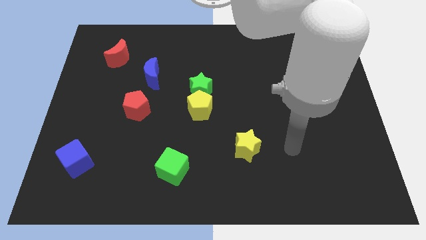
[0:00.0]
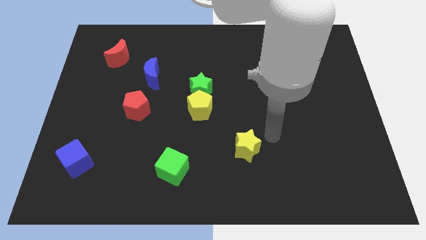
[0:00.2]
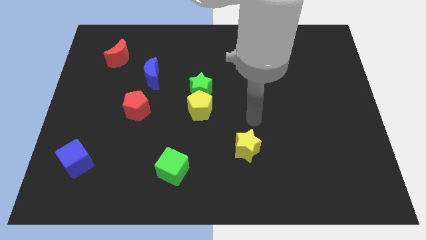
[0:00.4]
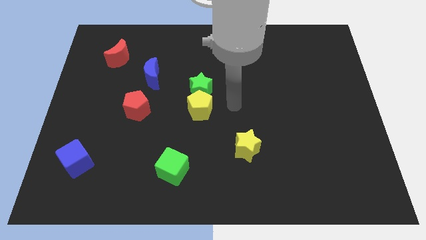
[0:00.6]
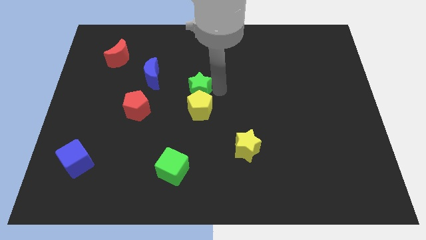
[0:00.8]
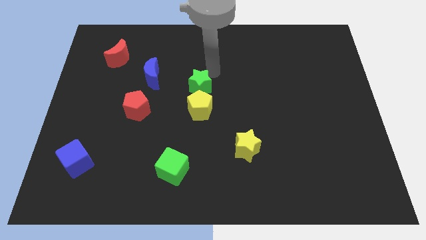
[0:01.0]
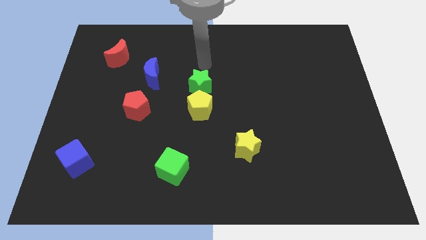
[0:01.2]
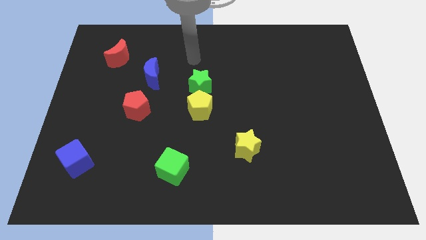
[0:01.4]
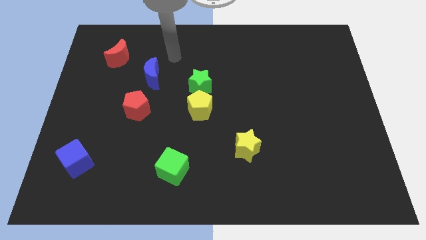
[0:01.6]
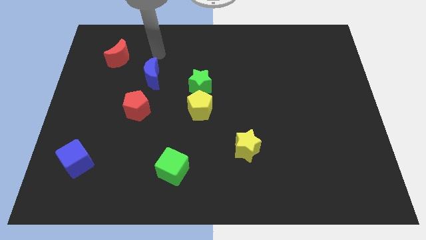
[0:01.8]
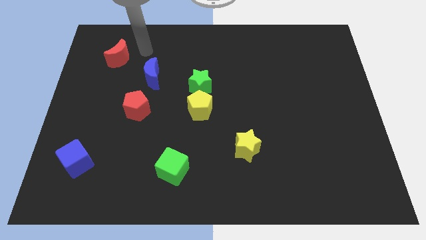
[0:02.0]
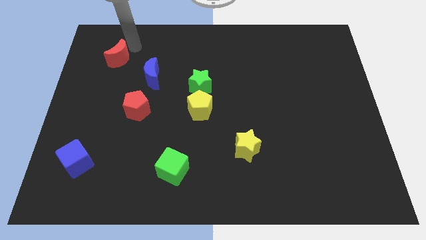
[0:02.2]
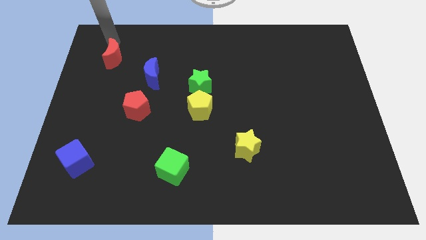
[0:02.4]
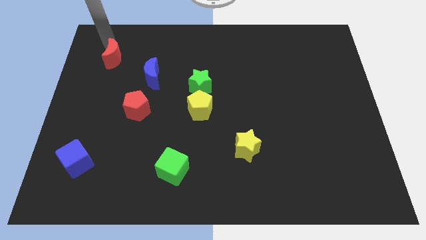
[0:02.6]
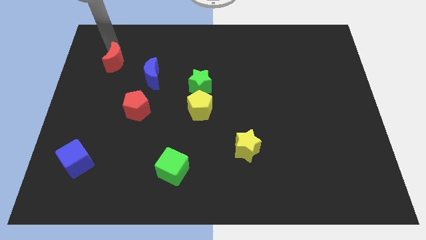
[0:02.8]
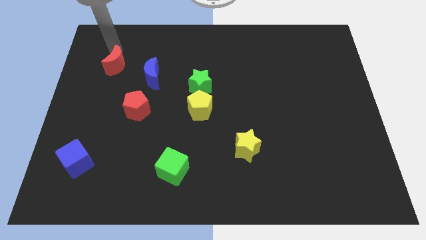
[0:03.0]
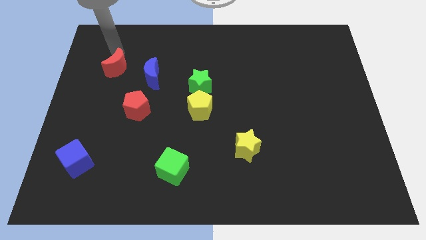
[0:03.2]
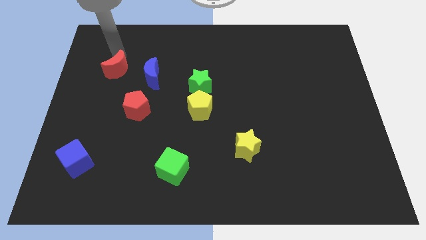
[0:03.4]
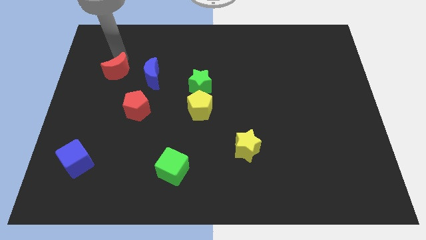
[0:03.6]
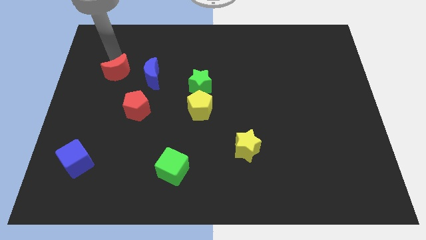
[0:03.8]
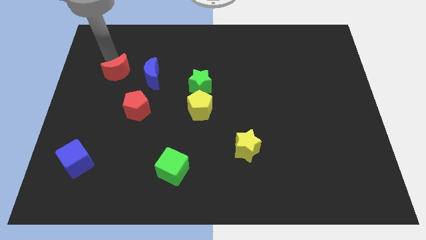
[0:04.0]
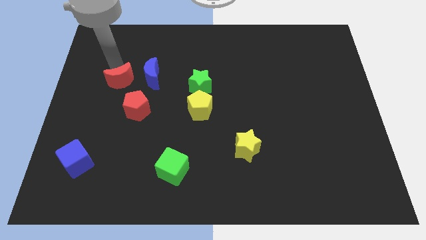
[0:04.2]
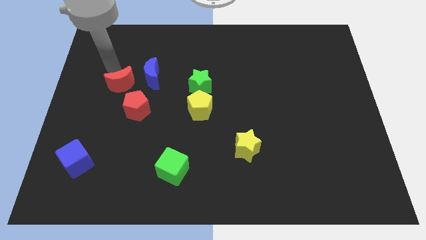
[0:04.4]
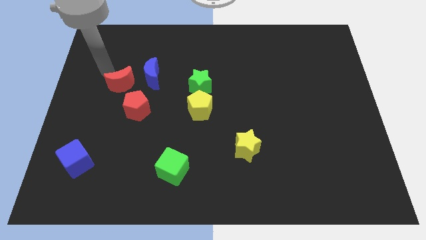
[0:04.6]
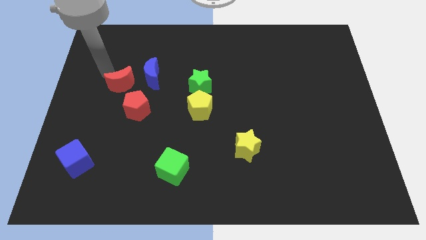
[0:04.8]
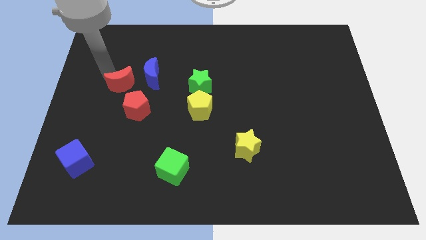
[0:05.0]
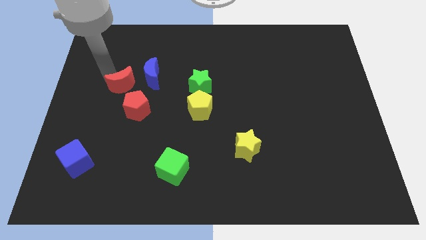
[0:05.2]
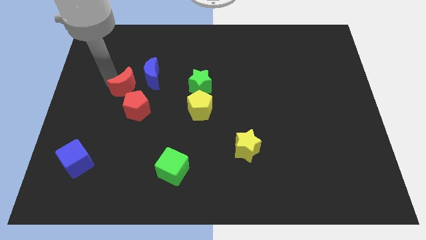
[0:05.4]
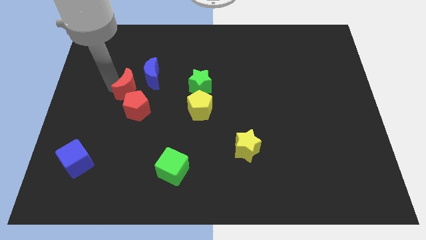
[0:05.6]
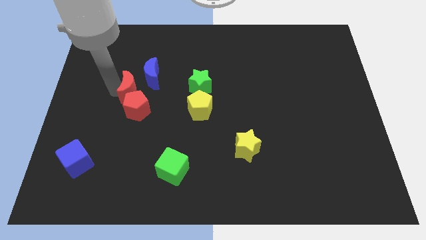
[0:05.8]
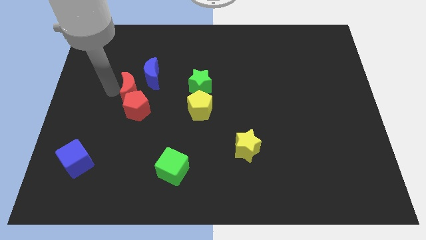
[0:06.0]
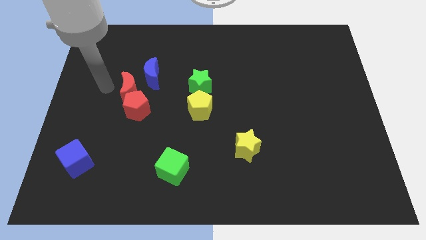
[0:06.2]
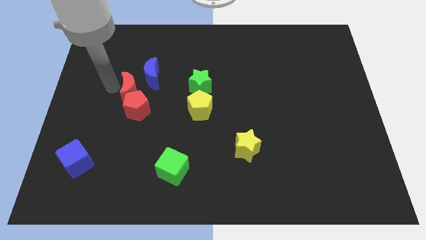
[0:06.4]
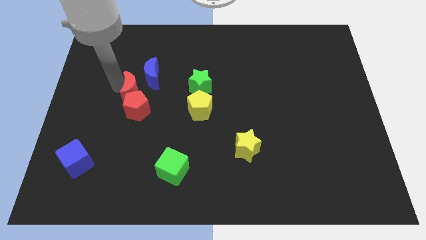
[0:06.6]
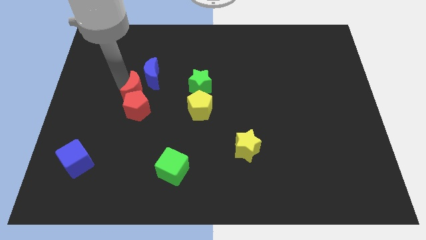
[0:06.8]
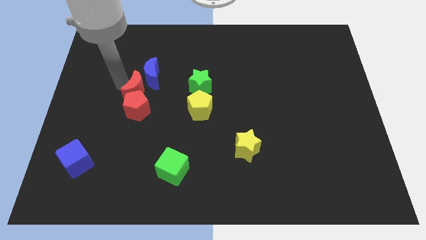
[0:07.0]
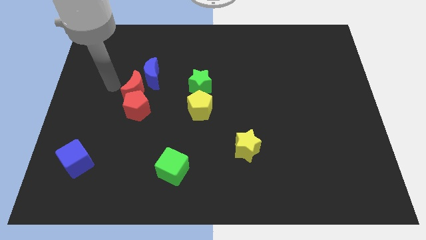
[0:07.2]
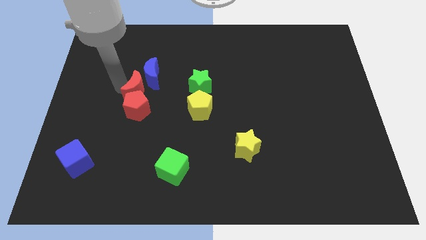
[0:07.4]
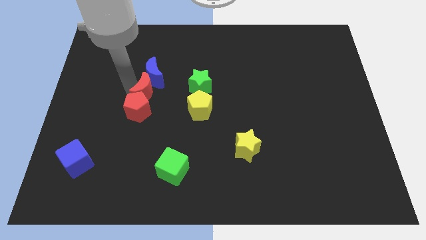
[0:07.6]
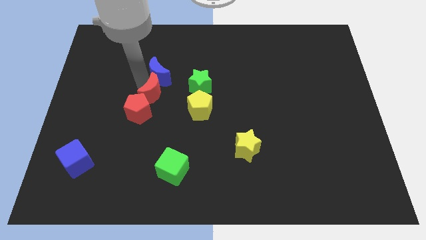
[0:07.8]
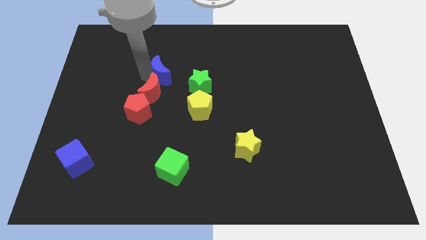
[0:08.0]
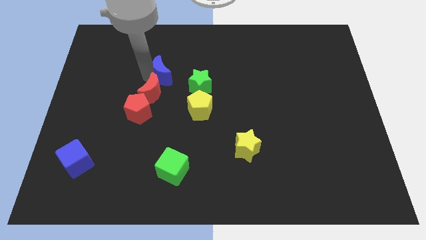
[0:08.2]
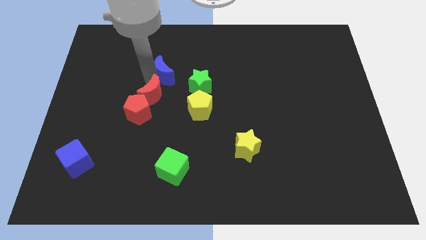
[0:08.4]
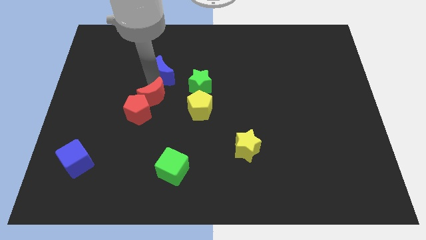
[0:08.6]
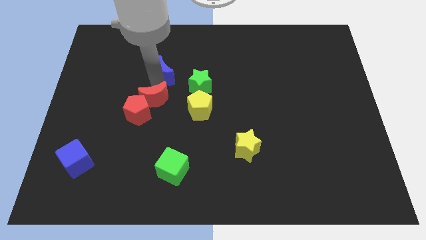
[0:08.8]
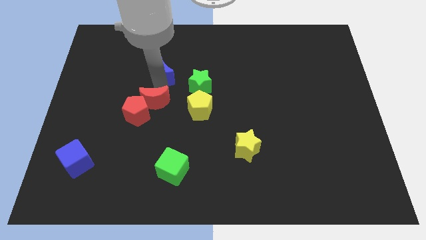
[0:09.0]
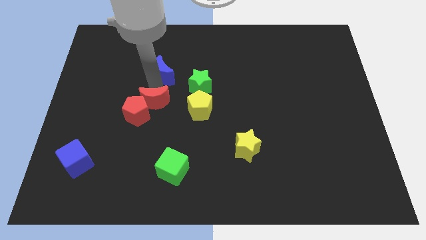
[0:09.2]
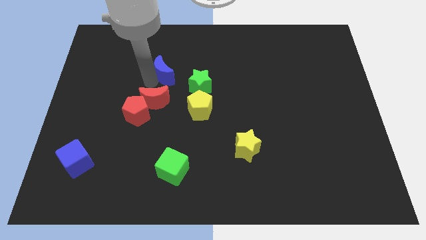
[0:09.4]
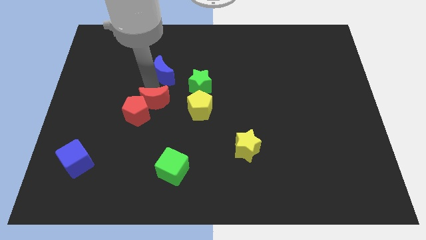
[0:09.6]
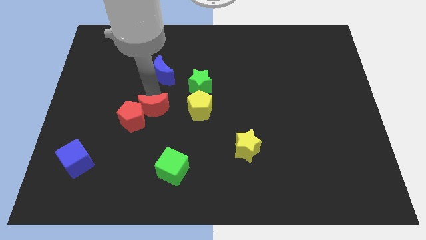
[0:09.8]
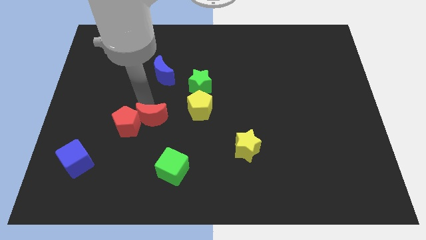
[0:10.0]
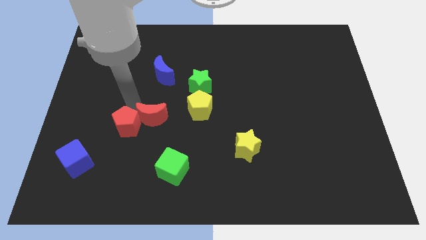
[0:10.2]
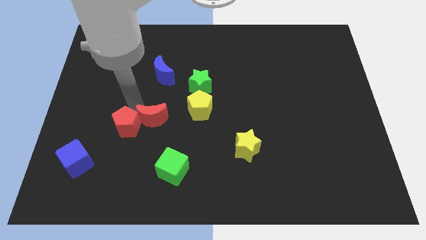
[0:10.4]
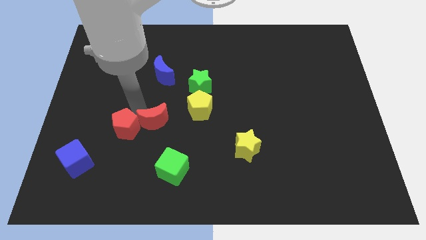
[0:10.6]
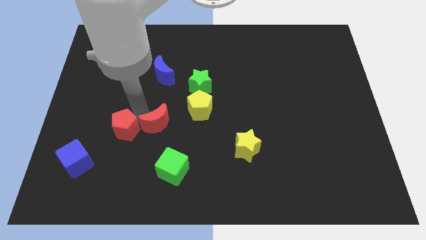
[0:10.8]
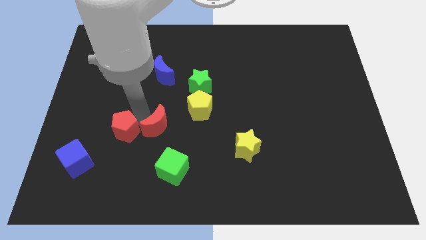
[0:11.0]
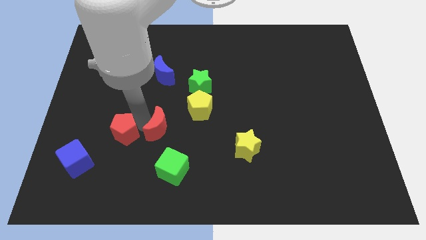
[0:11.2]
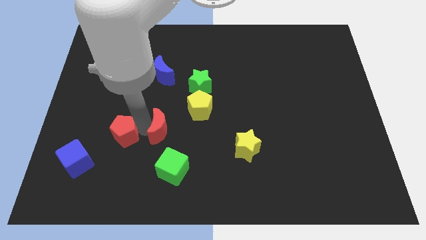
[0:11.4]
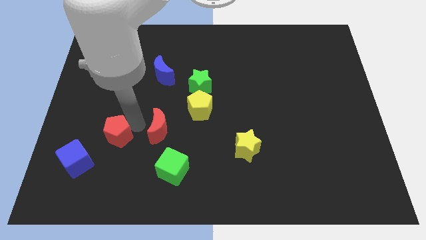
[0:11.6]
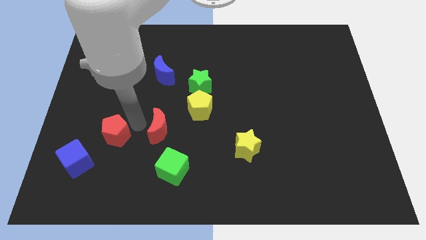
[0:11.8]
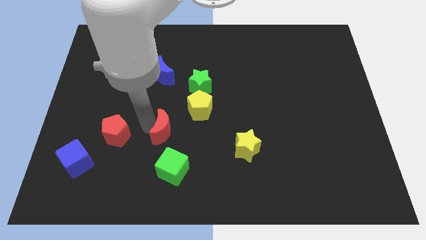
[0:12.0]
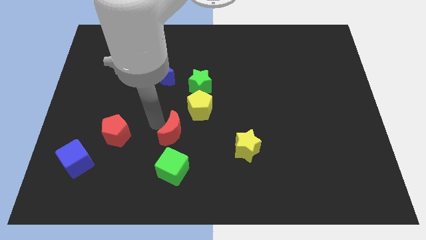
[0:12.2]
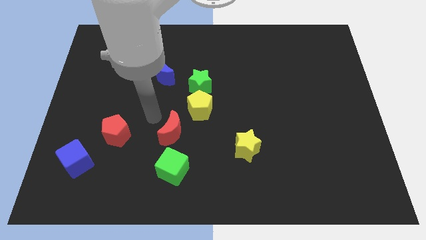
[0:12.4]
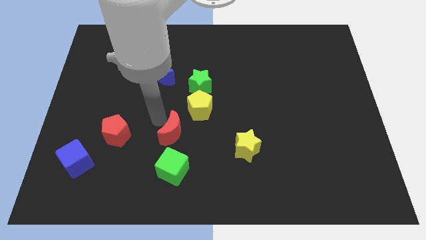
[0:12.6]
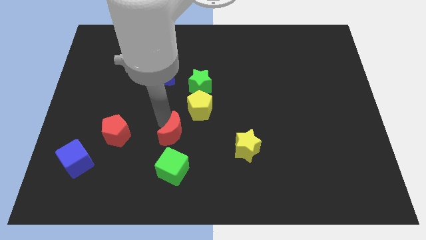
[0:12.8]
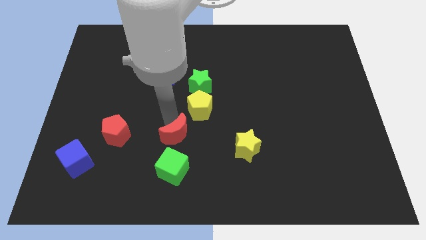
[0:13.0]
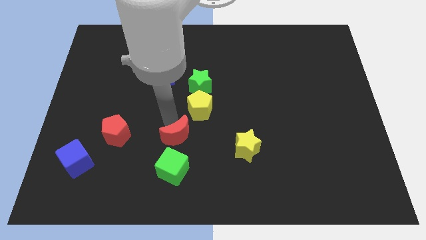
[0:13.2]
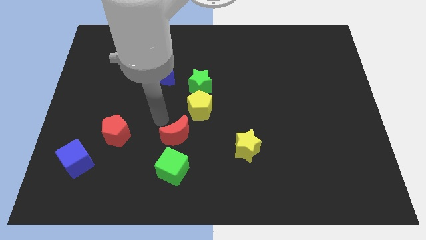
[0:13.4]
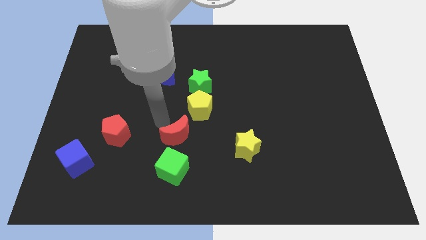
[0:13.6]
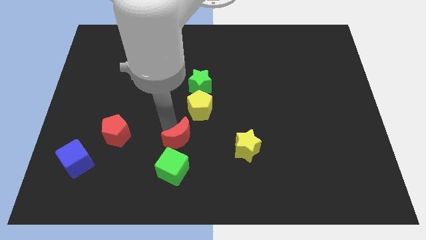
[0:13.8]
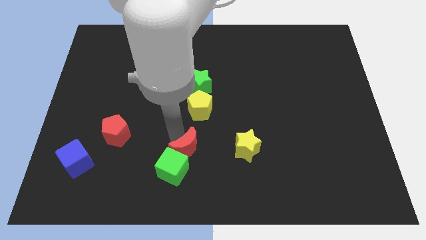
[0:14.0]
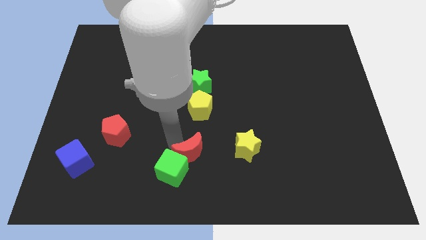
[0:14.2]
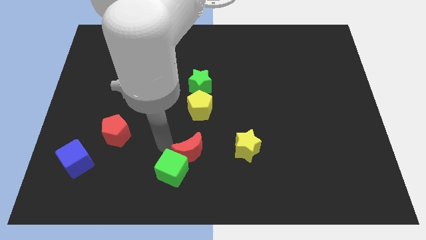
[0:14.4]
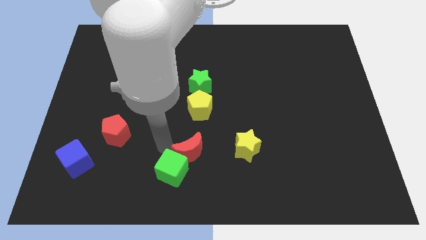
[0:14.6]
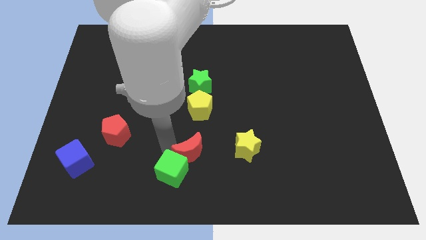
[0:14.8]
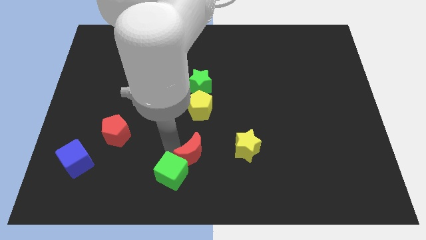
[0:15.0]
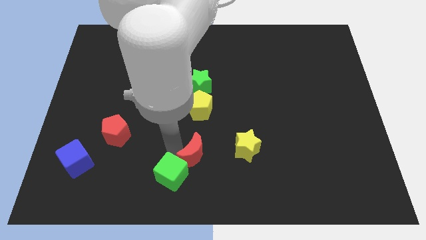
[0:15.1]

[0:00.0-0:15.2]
slide the red moon to the bottom side
